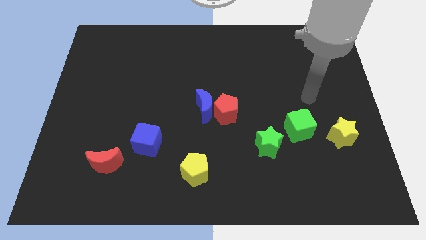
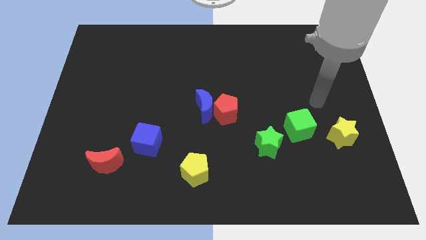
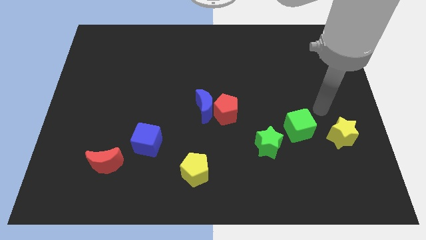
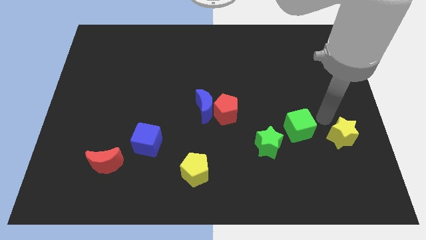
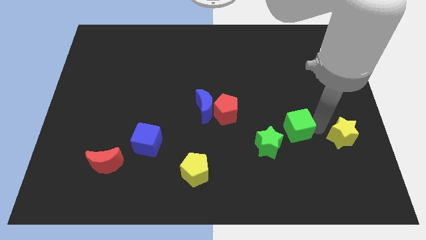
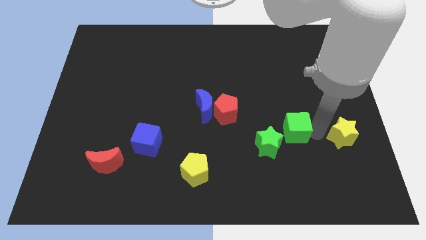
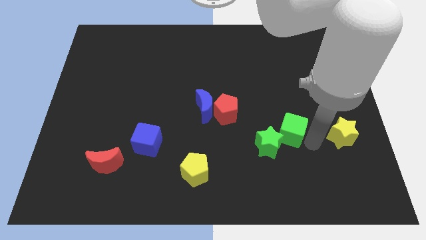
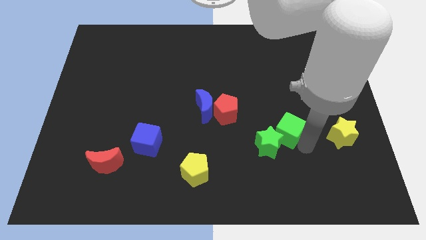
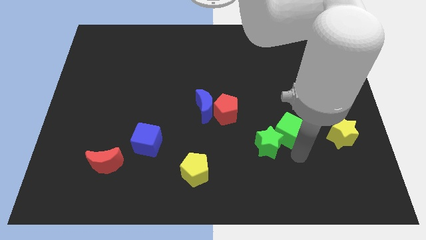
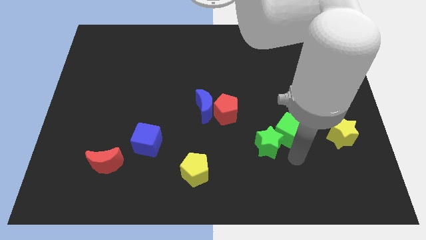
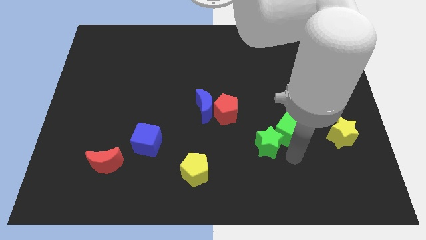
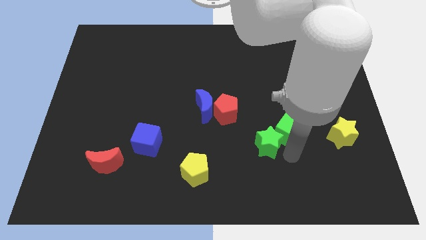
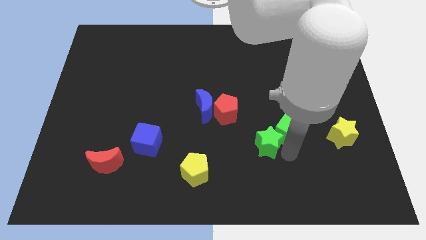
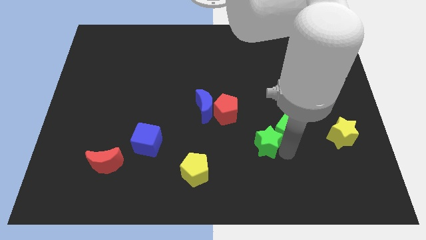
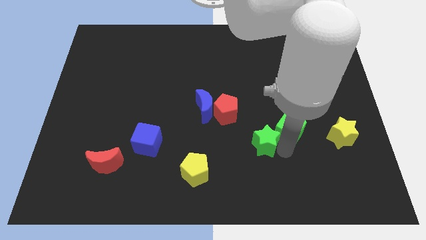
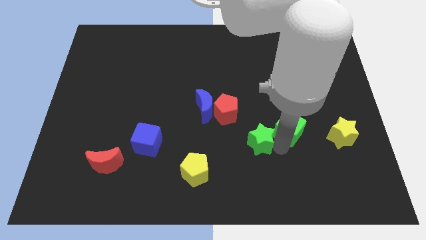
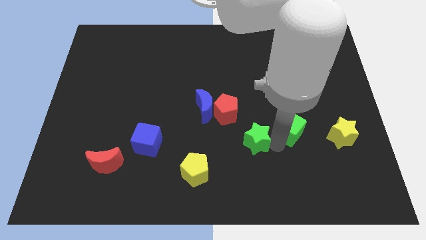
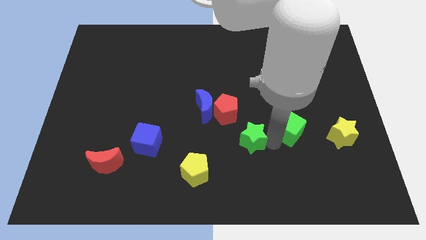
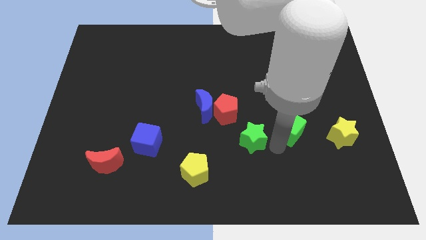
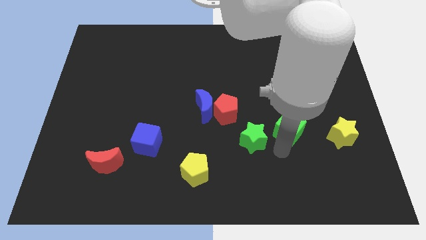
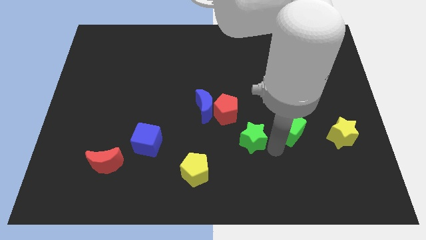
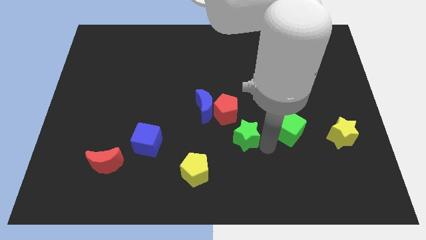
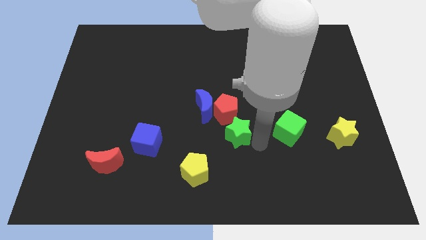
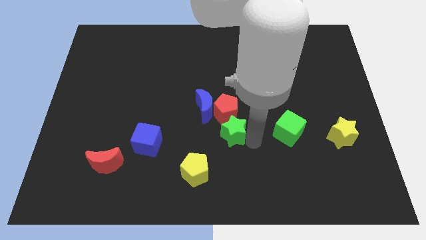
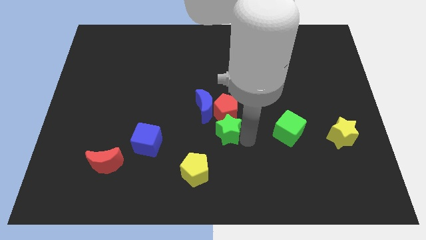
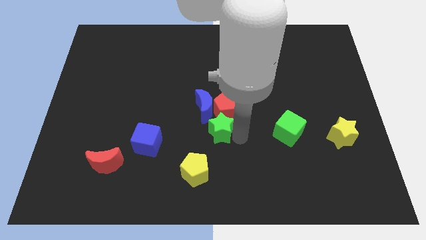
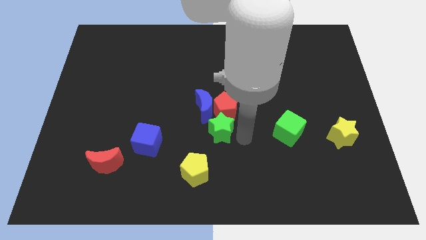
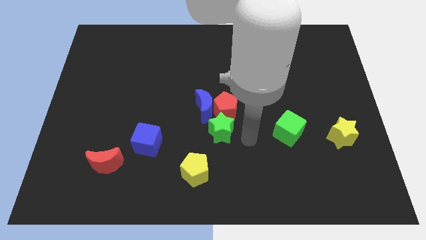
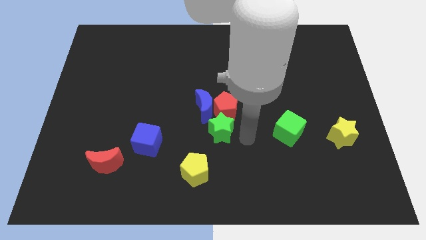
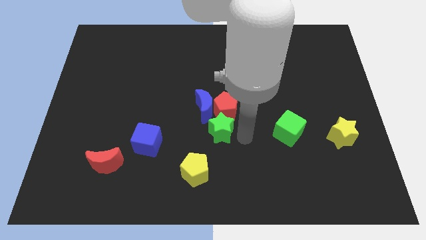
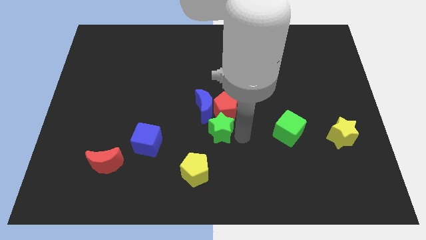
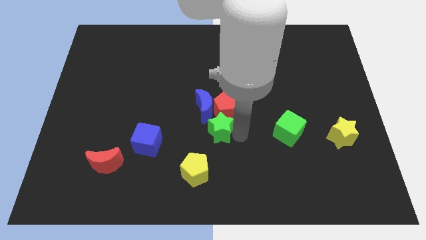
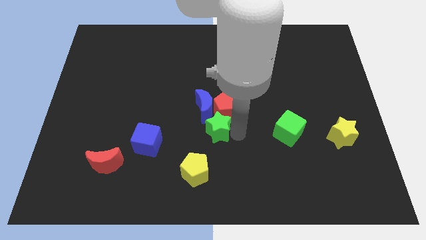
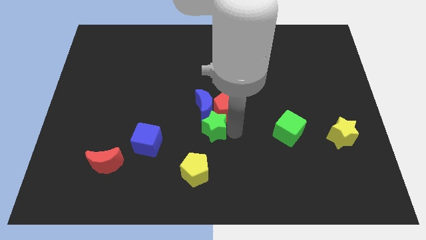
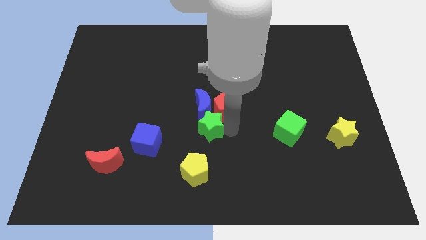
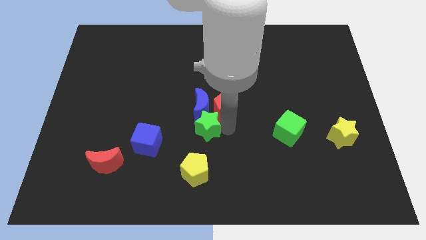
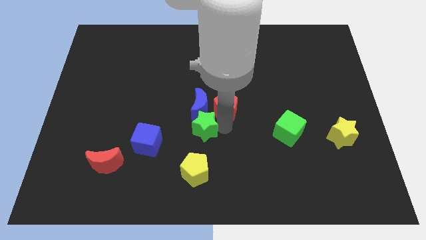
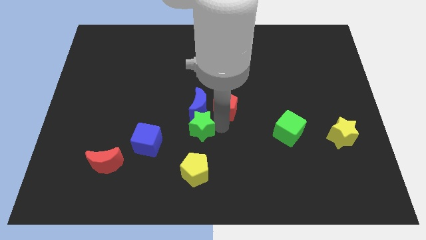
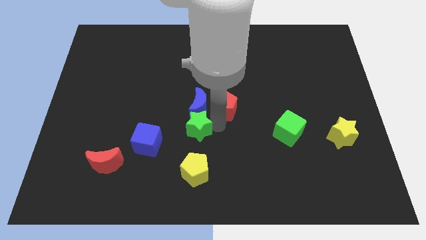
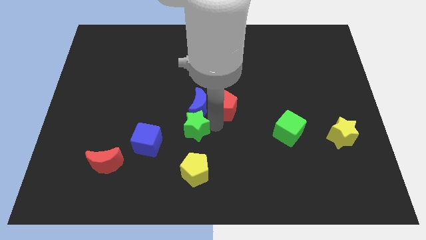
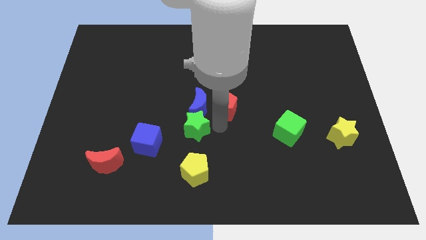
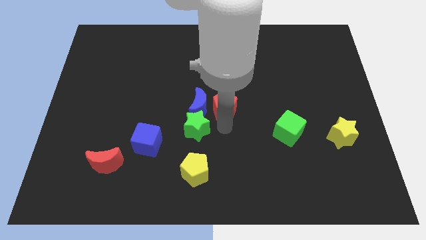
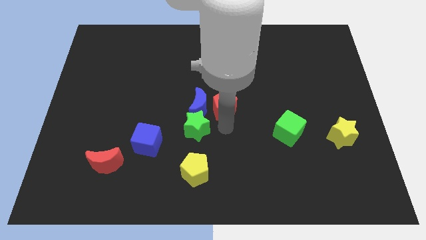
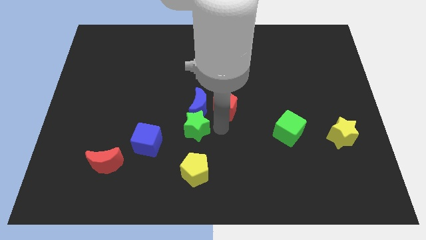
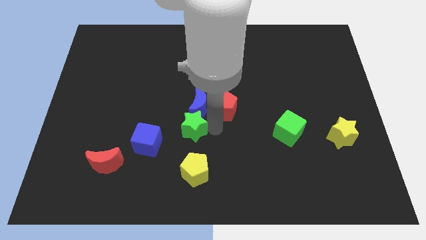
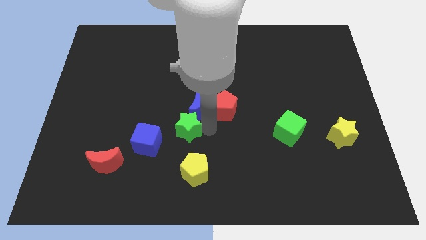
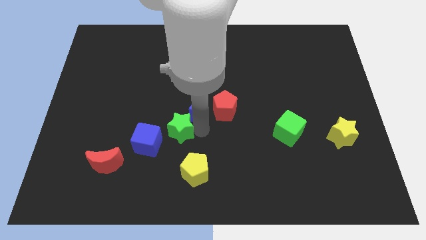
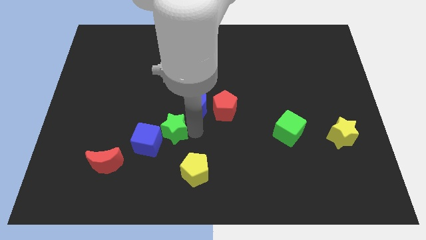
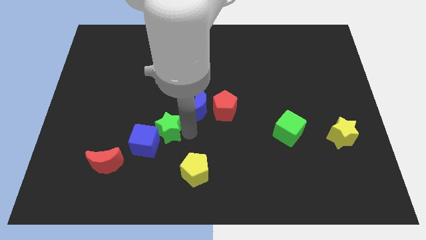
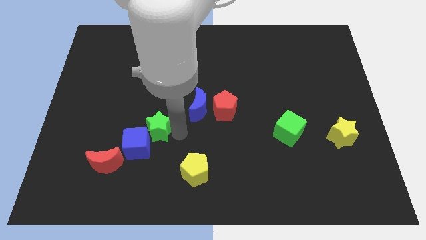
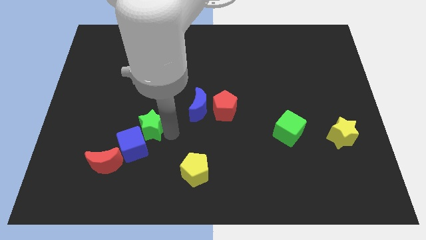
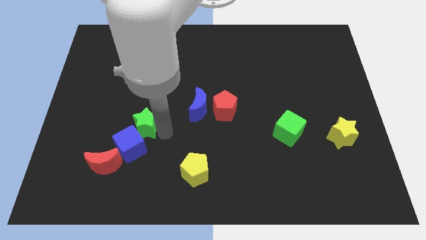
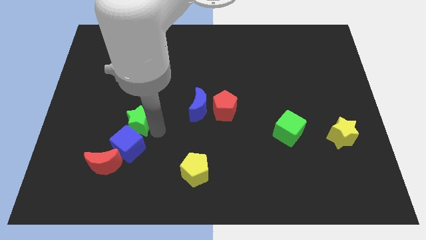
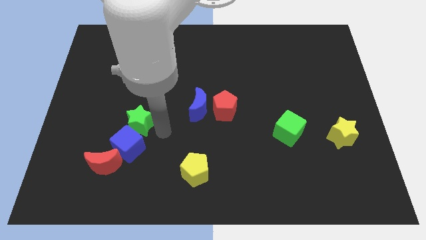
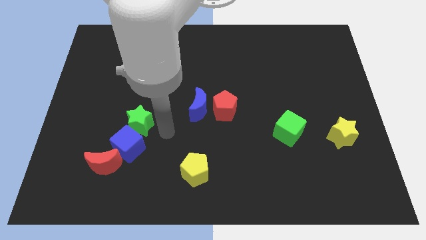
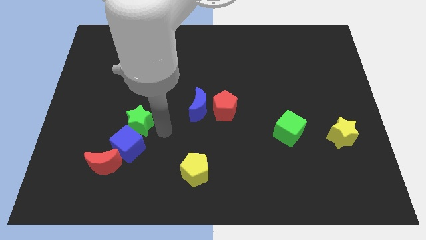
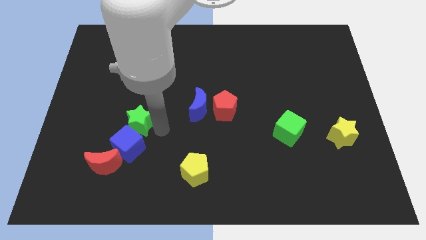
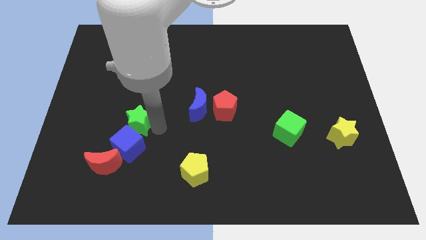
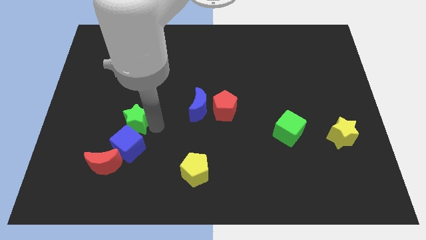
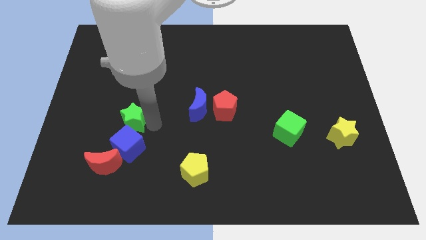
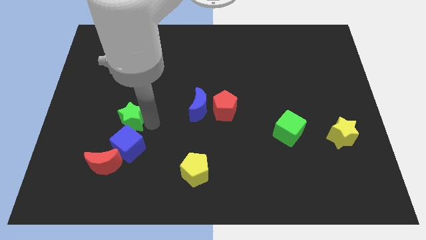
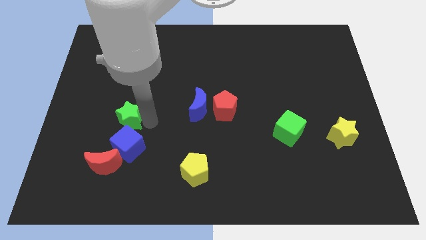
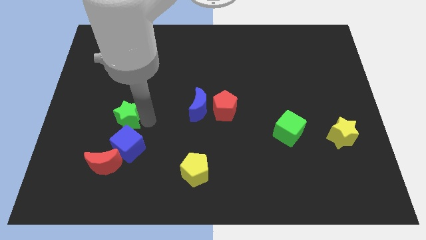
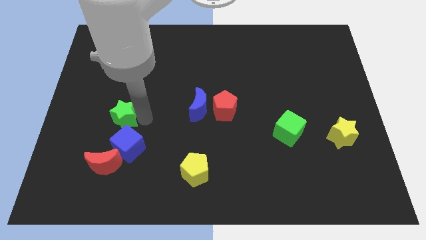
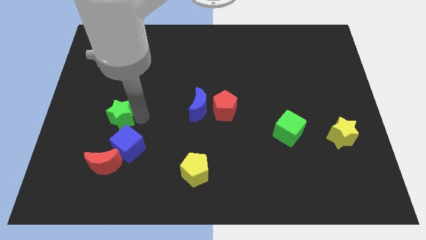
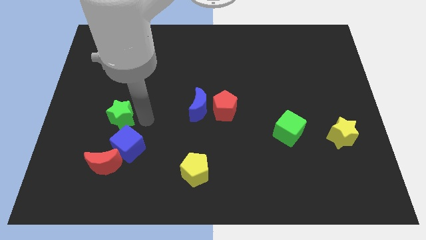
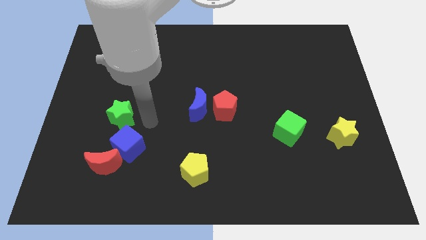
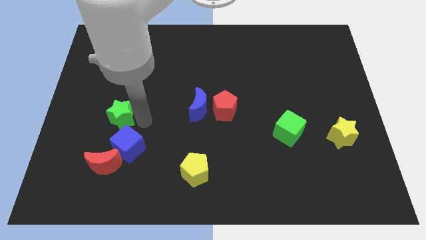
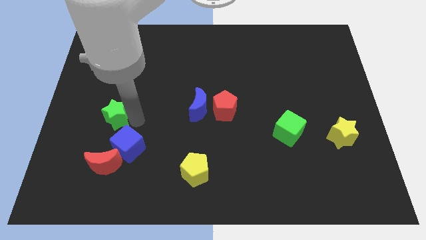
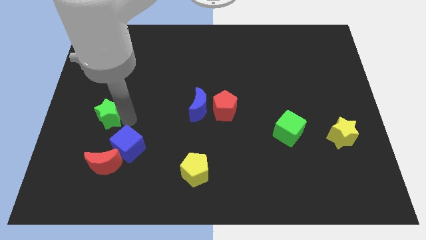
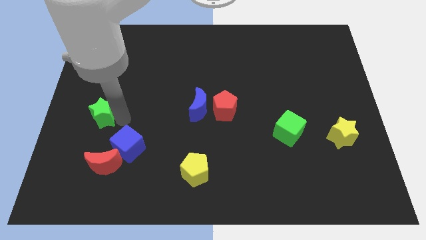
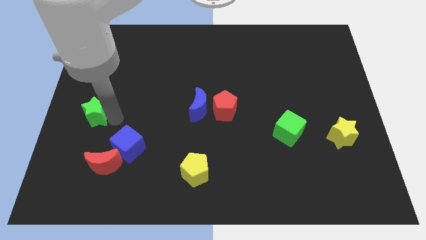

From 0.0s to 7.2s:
slide the green star to the left side of the board
